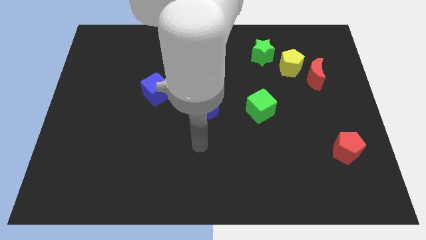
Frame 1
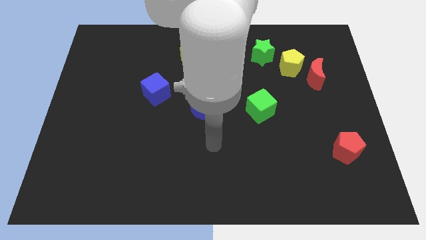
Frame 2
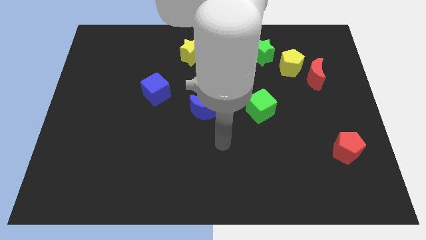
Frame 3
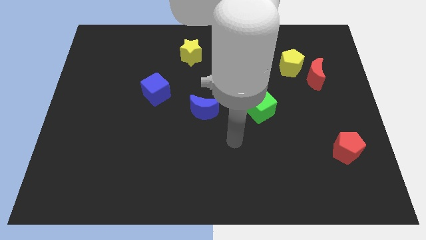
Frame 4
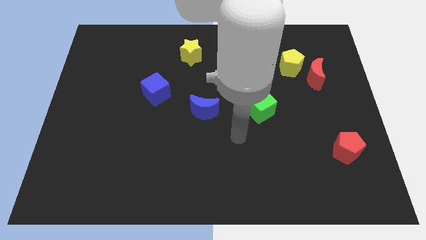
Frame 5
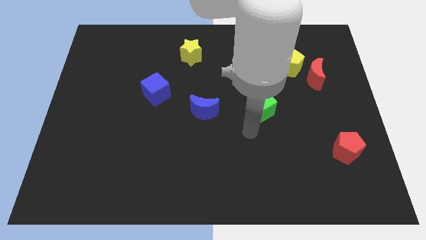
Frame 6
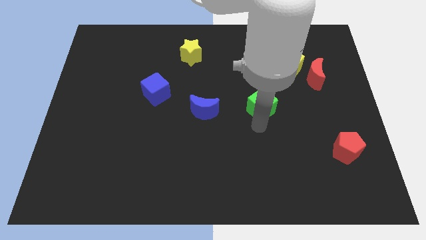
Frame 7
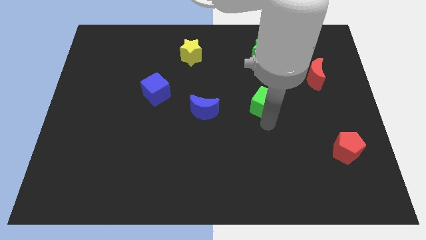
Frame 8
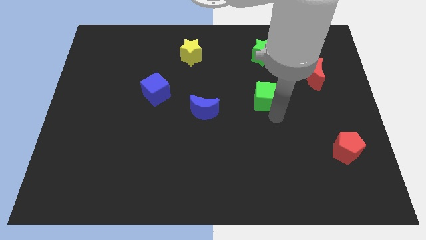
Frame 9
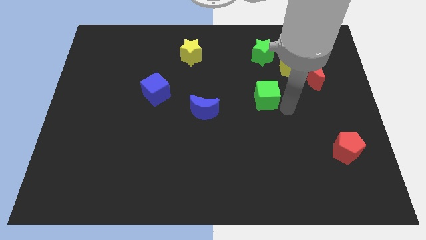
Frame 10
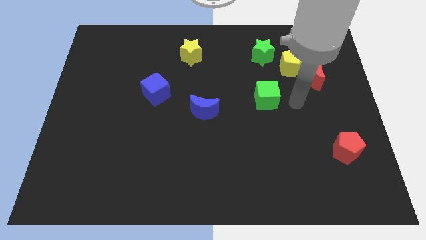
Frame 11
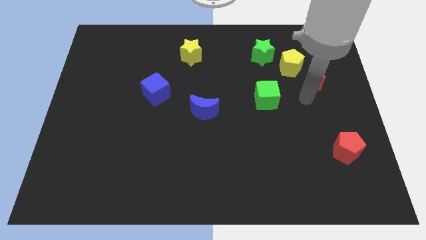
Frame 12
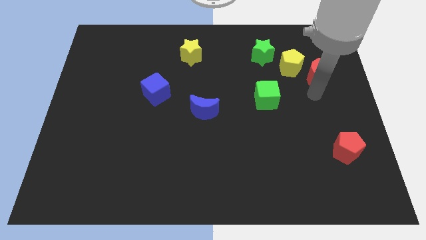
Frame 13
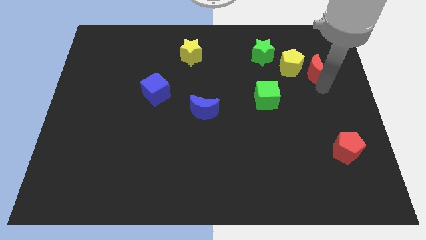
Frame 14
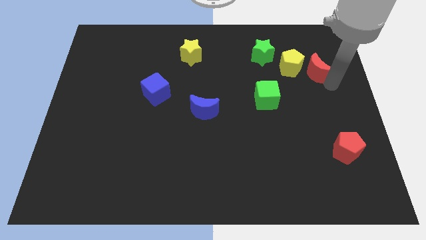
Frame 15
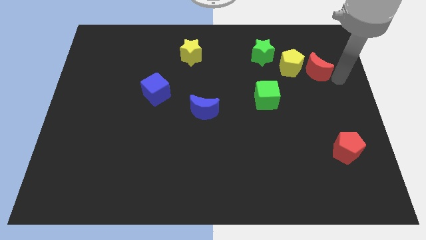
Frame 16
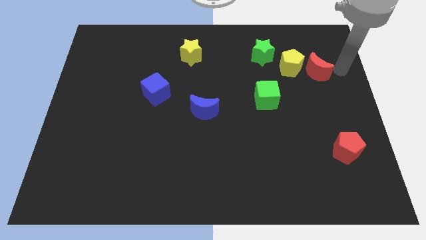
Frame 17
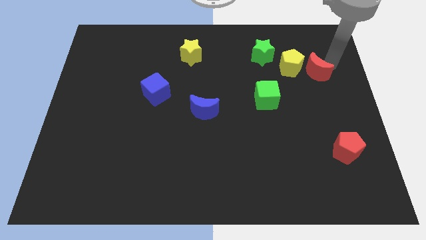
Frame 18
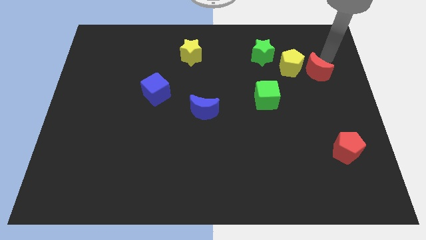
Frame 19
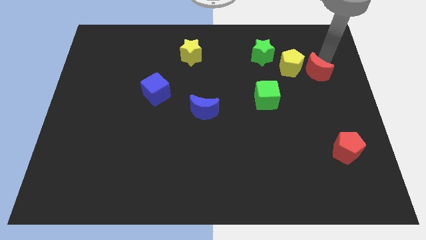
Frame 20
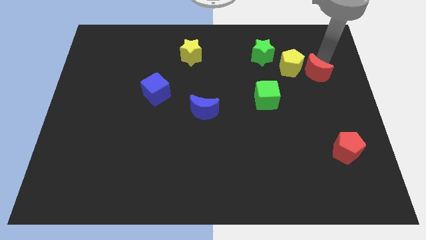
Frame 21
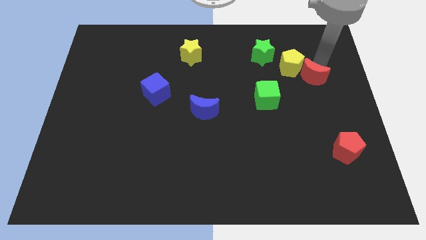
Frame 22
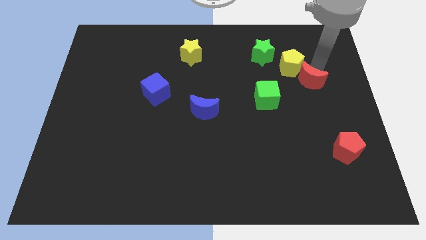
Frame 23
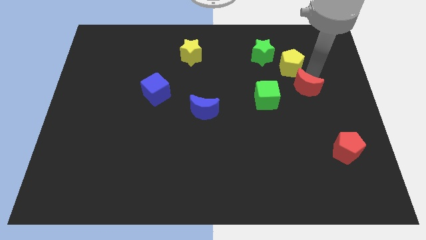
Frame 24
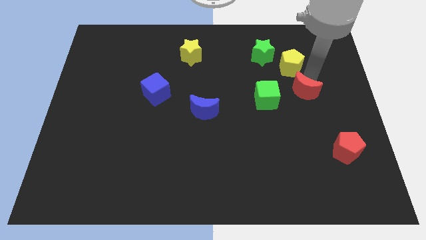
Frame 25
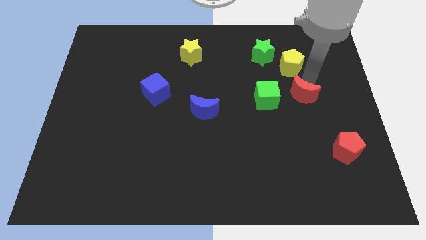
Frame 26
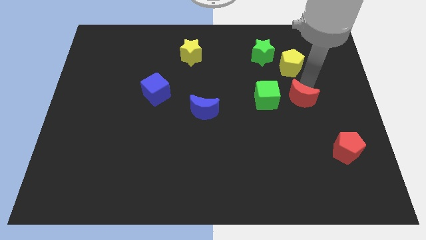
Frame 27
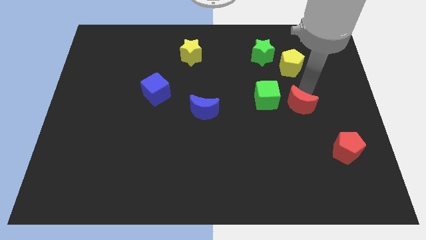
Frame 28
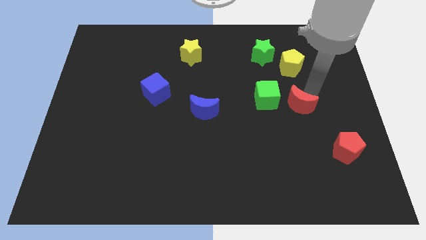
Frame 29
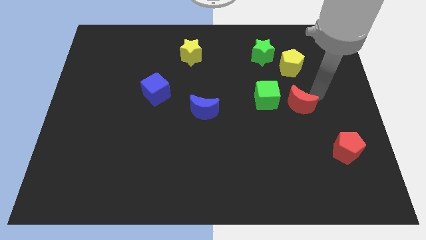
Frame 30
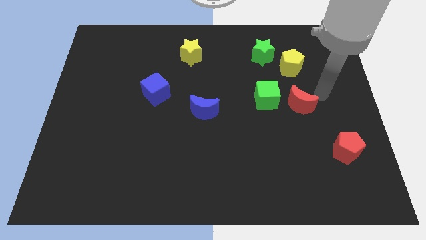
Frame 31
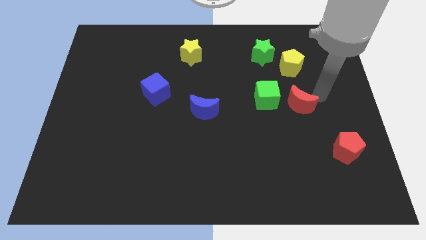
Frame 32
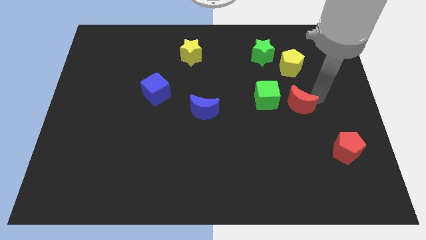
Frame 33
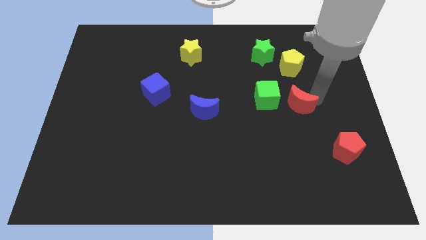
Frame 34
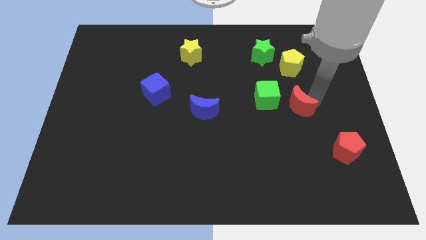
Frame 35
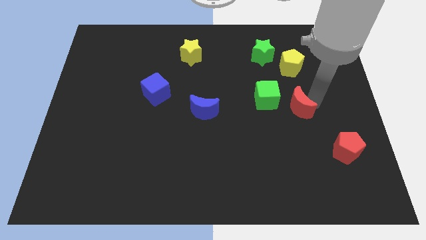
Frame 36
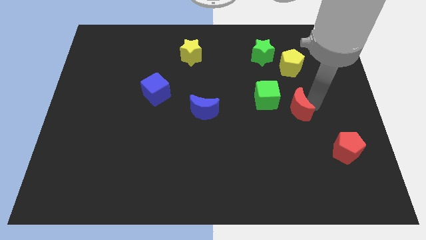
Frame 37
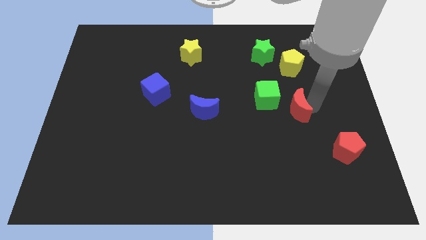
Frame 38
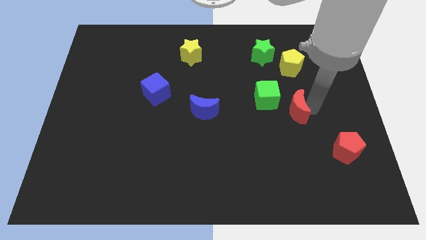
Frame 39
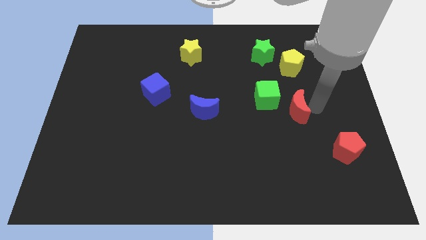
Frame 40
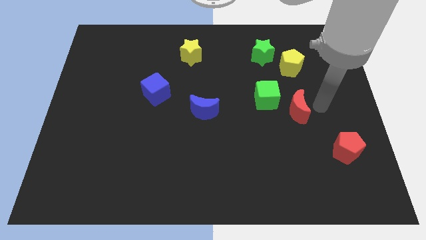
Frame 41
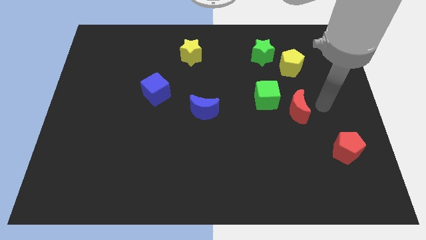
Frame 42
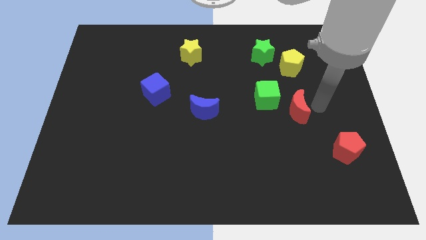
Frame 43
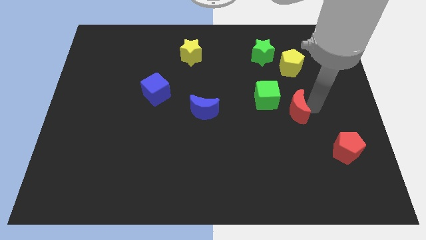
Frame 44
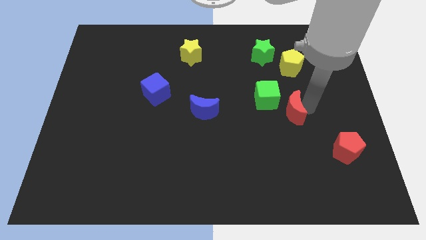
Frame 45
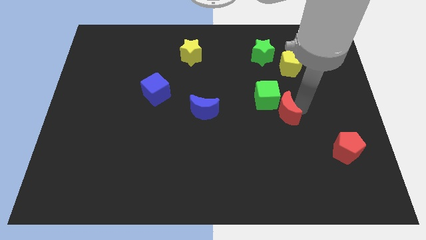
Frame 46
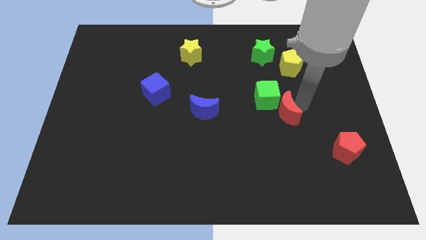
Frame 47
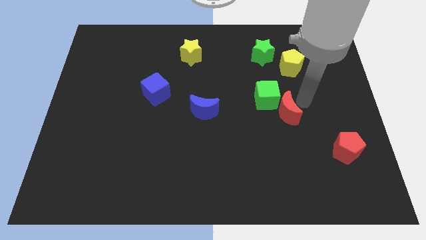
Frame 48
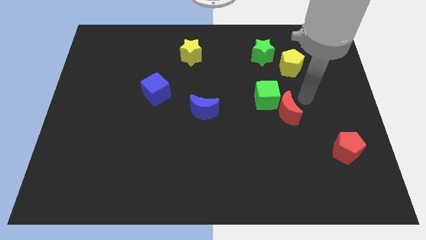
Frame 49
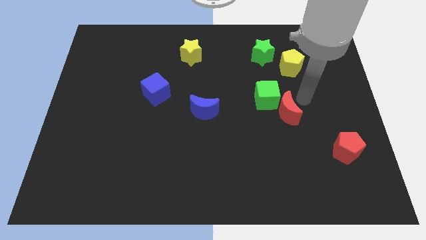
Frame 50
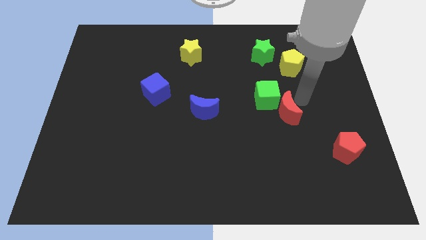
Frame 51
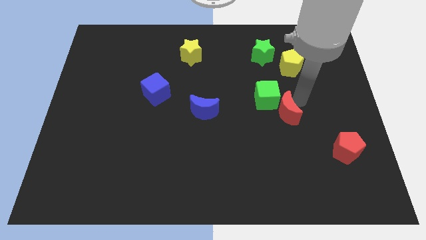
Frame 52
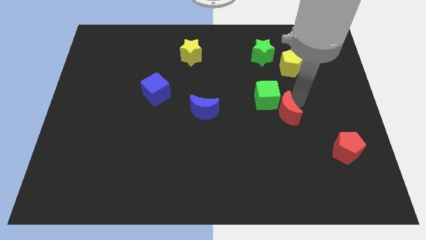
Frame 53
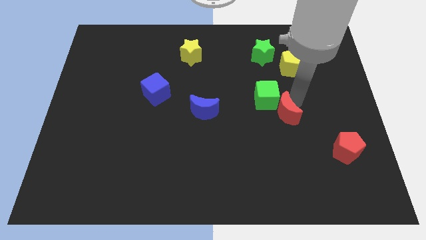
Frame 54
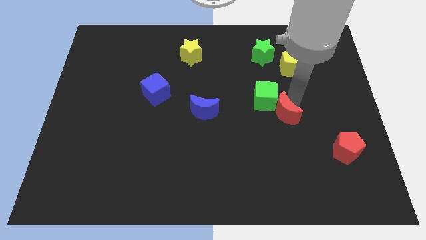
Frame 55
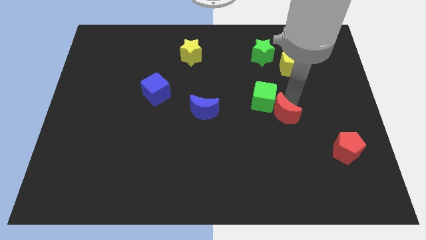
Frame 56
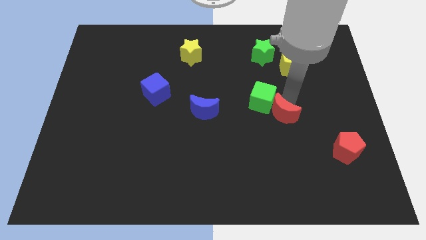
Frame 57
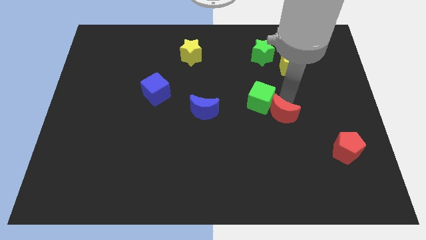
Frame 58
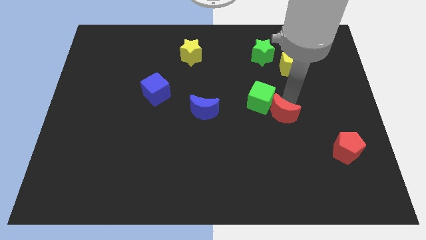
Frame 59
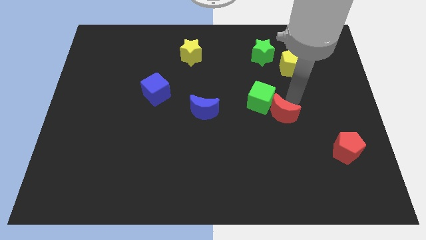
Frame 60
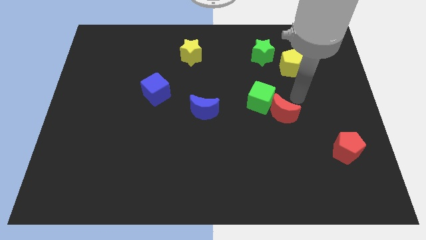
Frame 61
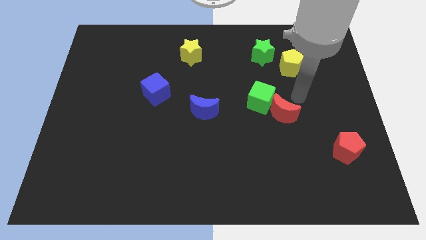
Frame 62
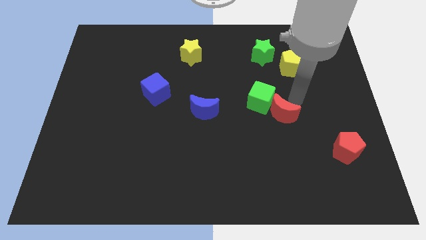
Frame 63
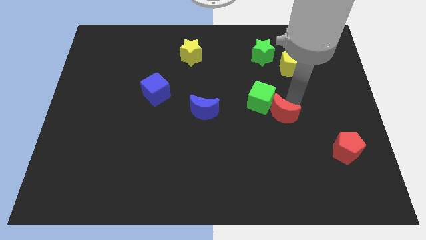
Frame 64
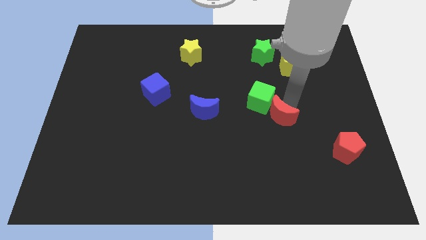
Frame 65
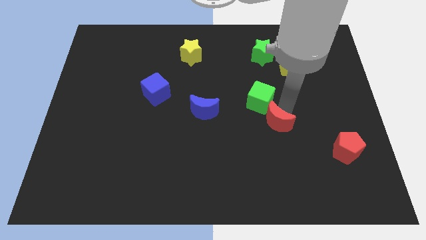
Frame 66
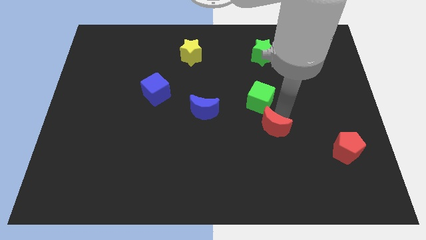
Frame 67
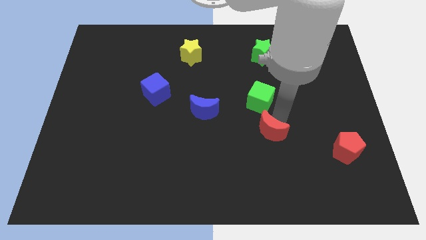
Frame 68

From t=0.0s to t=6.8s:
move the red moon diagonally down and to the left

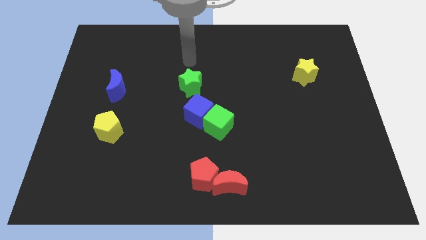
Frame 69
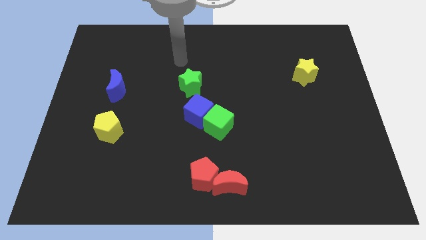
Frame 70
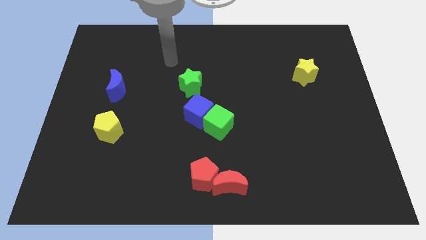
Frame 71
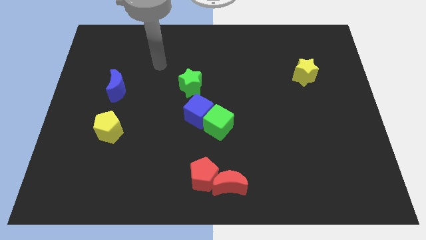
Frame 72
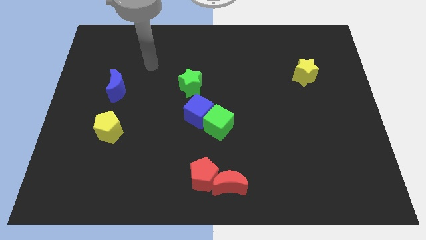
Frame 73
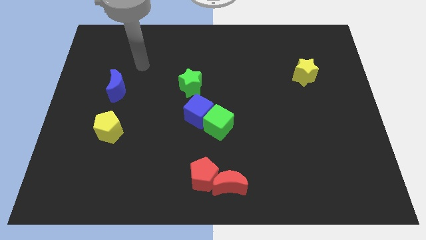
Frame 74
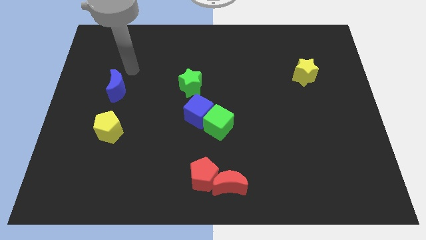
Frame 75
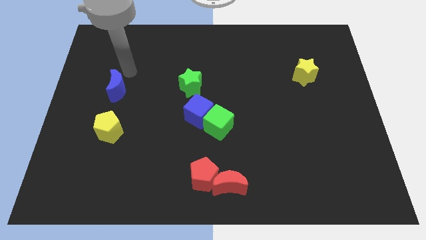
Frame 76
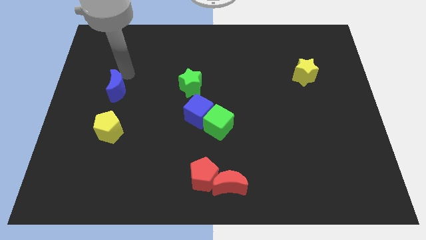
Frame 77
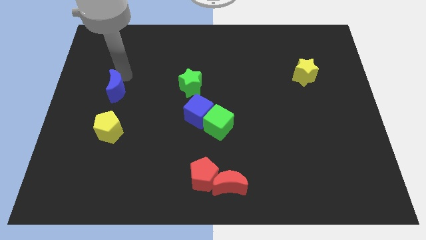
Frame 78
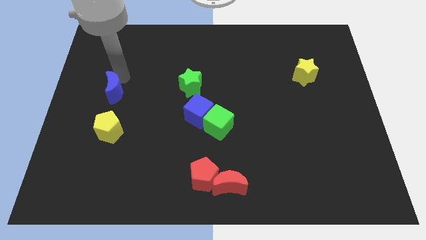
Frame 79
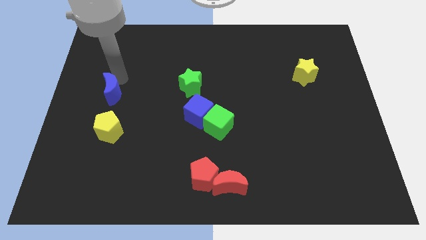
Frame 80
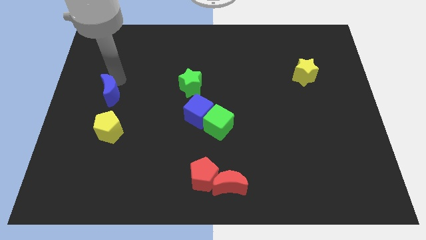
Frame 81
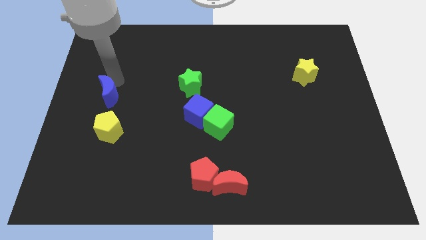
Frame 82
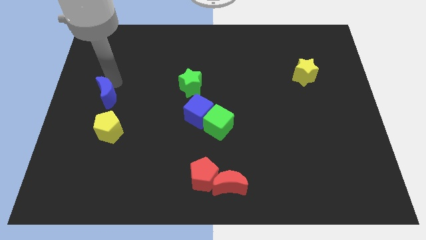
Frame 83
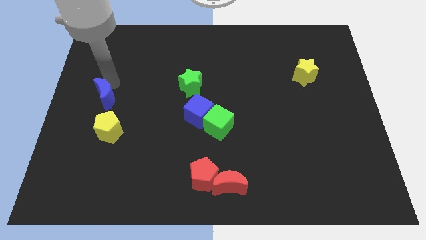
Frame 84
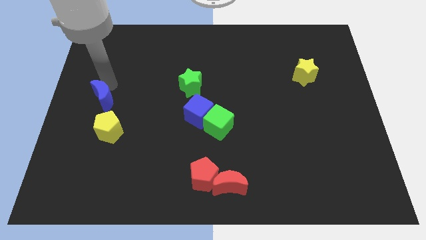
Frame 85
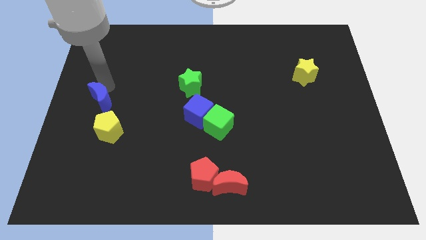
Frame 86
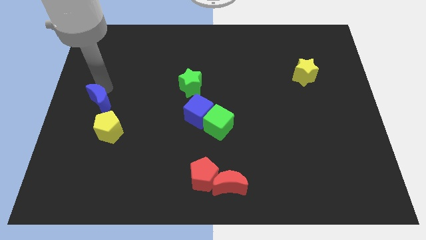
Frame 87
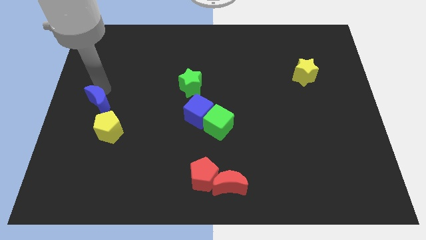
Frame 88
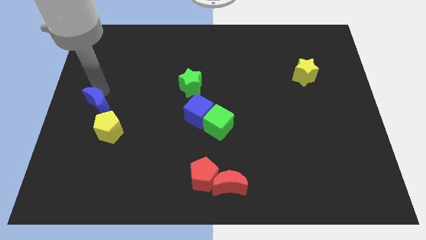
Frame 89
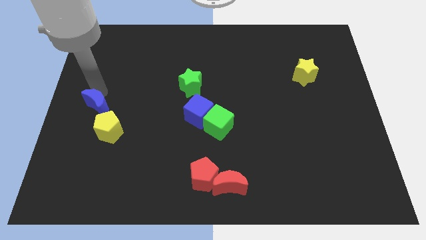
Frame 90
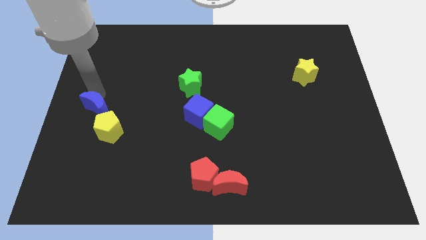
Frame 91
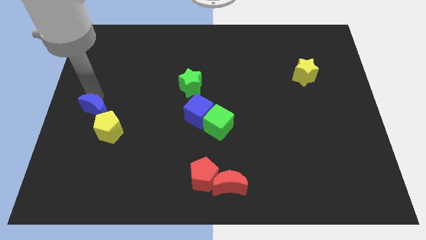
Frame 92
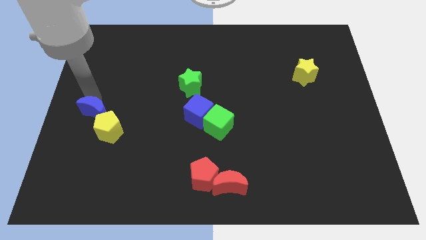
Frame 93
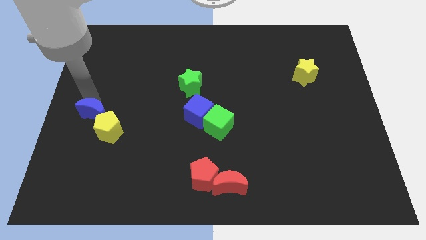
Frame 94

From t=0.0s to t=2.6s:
push the blue moon a little bit downwards
